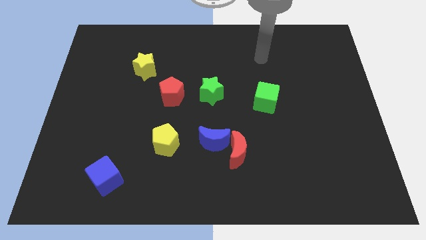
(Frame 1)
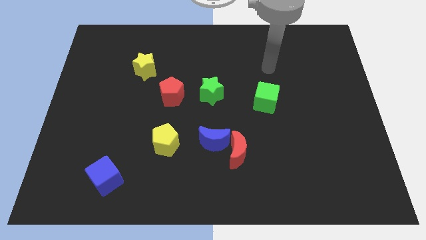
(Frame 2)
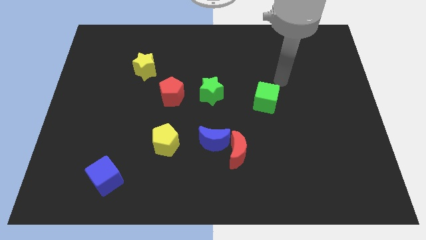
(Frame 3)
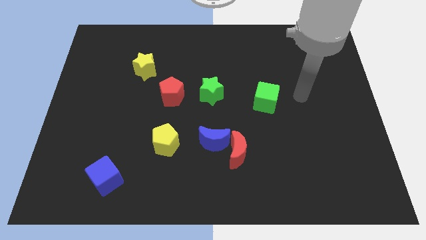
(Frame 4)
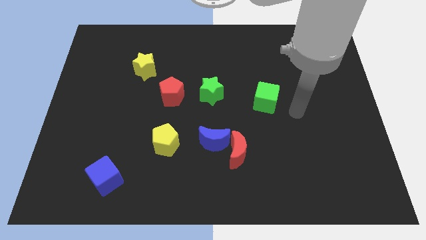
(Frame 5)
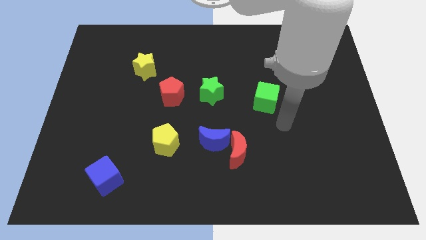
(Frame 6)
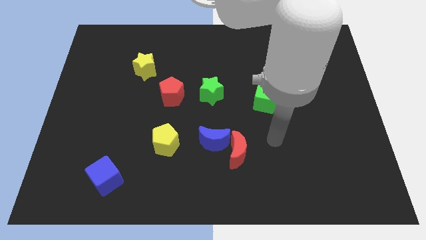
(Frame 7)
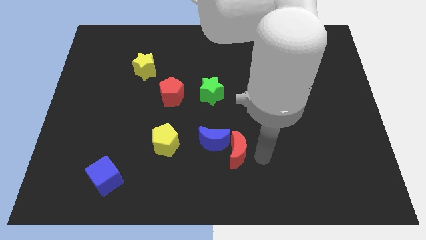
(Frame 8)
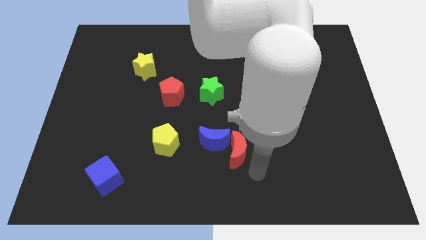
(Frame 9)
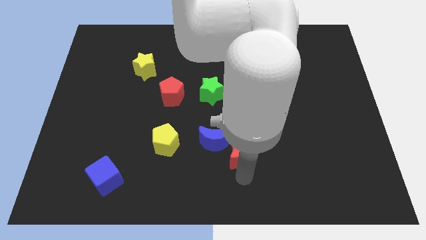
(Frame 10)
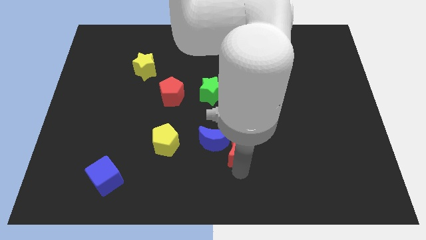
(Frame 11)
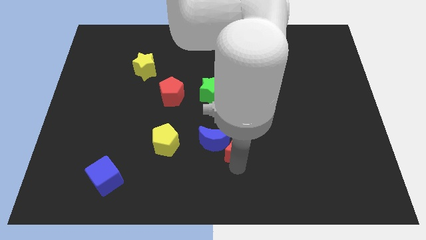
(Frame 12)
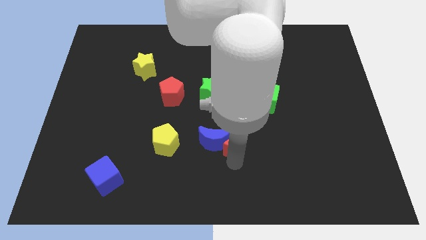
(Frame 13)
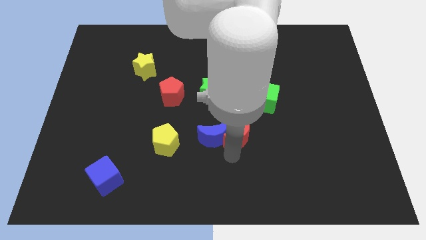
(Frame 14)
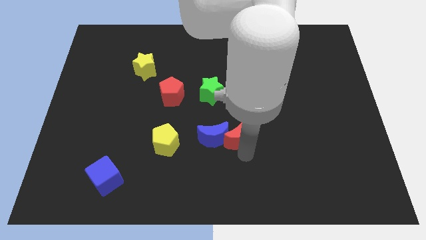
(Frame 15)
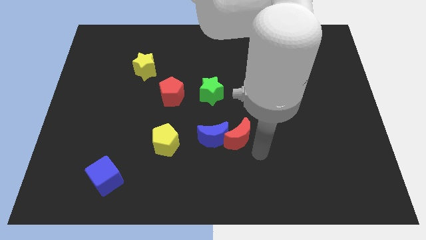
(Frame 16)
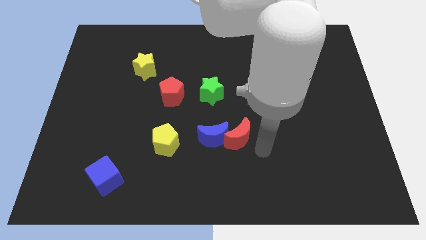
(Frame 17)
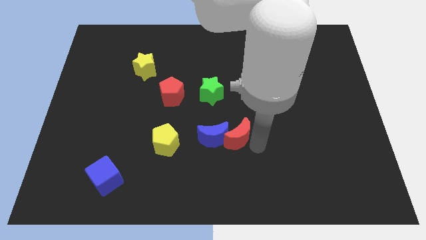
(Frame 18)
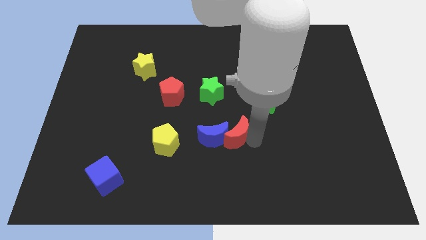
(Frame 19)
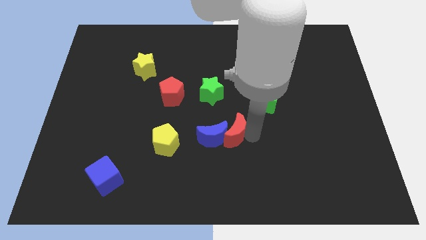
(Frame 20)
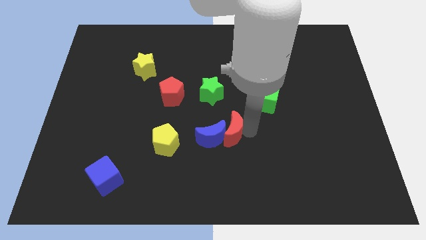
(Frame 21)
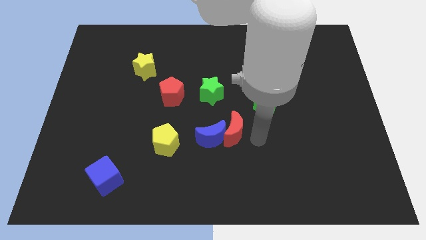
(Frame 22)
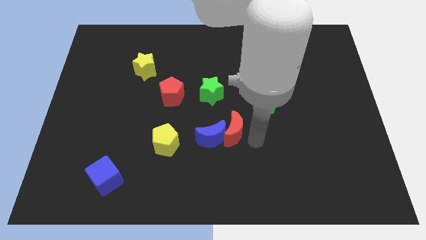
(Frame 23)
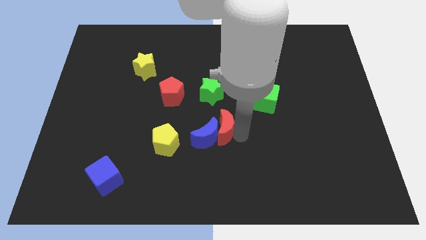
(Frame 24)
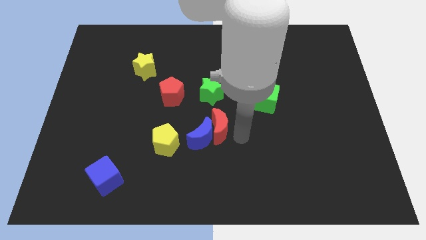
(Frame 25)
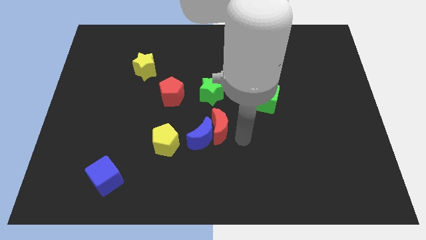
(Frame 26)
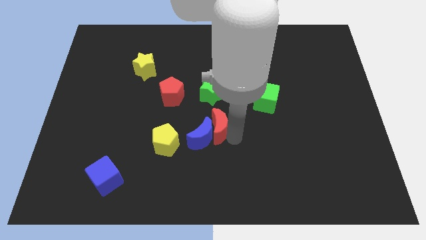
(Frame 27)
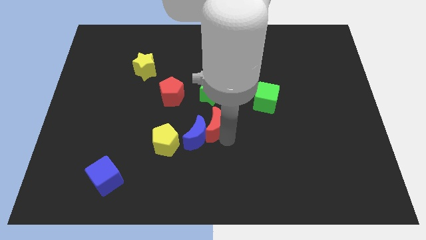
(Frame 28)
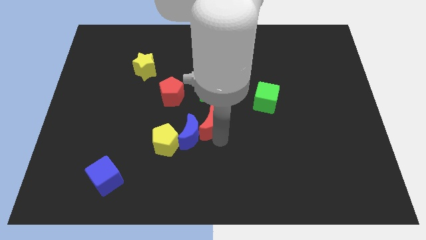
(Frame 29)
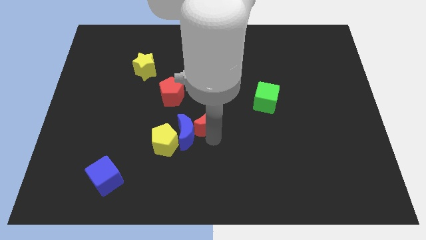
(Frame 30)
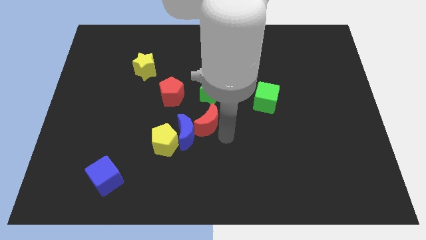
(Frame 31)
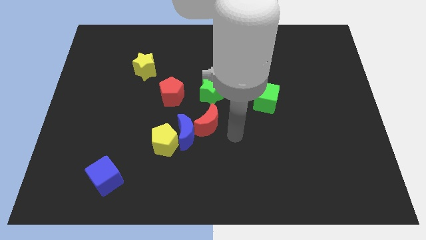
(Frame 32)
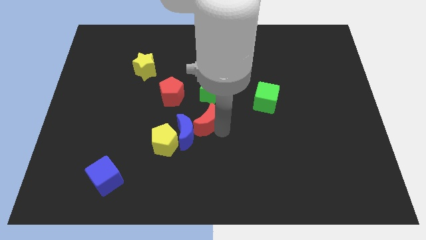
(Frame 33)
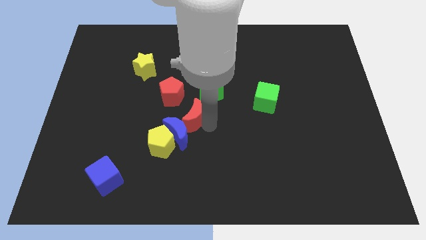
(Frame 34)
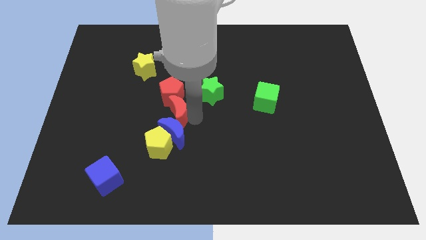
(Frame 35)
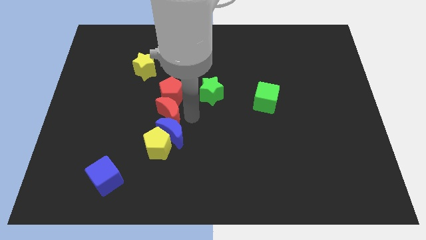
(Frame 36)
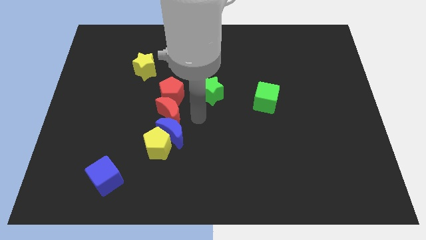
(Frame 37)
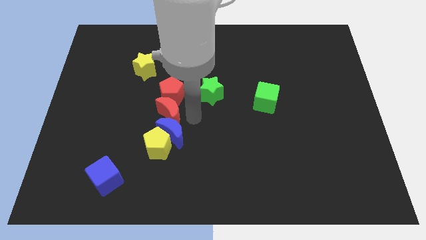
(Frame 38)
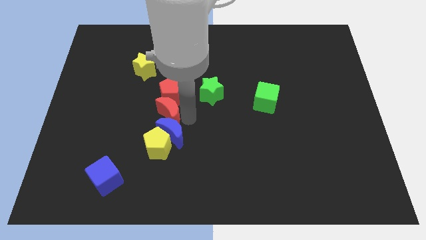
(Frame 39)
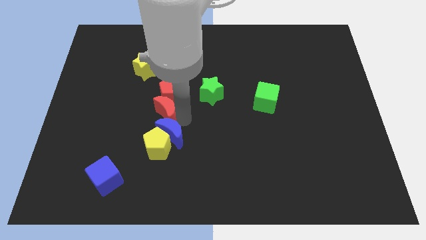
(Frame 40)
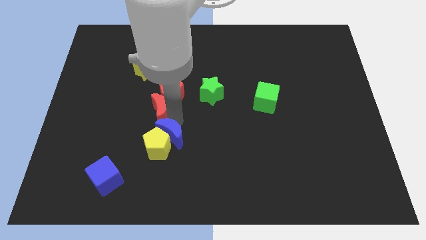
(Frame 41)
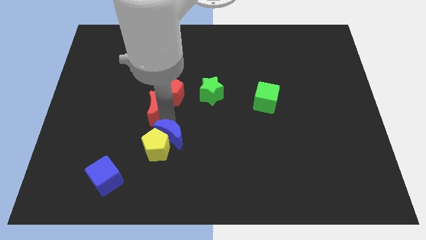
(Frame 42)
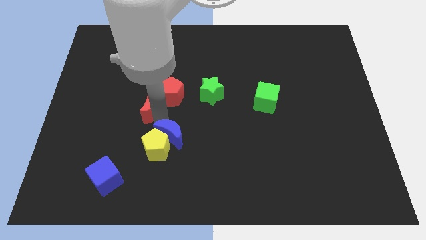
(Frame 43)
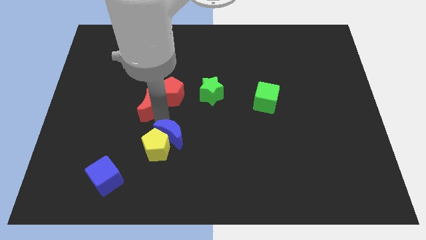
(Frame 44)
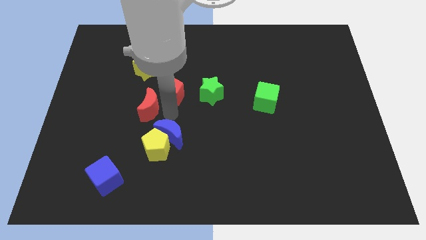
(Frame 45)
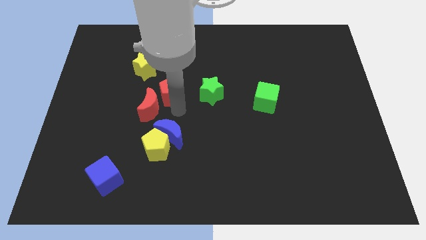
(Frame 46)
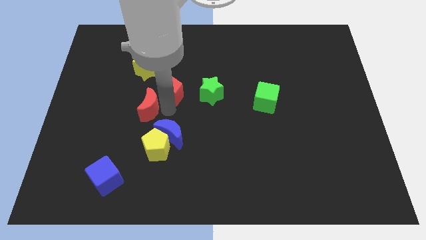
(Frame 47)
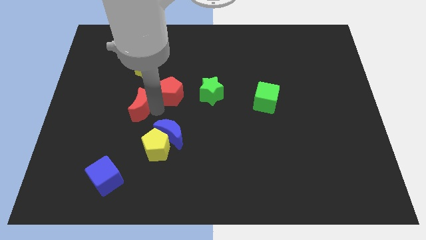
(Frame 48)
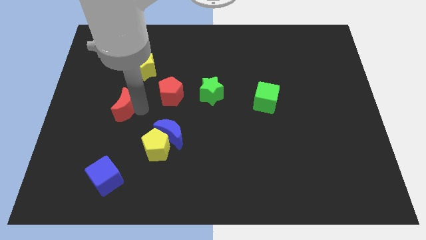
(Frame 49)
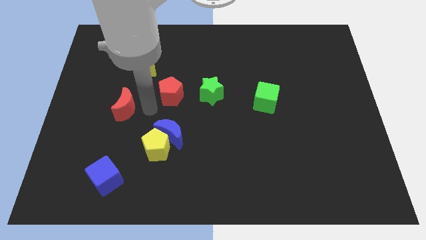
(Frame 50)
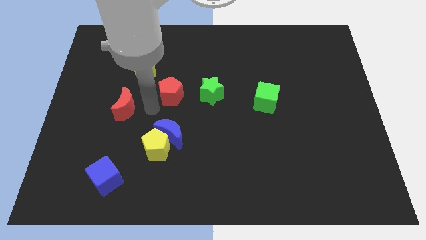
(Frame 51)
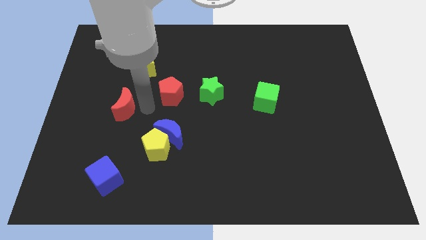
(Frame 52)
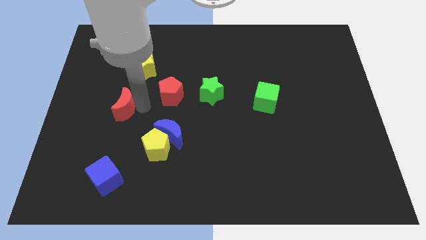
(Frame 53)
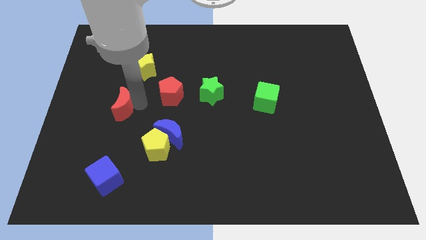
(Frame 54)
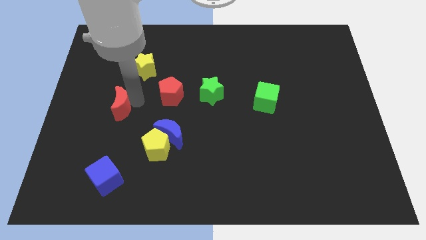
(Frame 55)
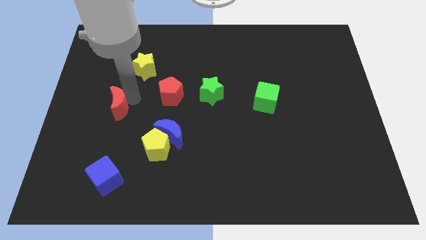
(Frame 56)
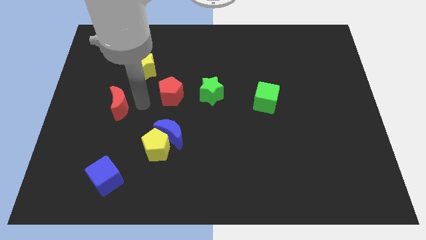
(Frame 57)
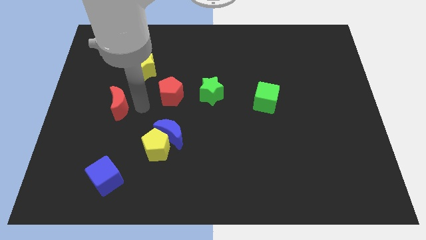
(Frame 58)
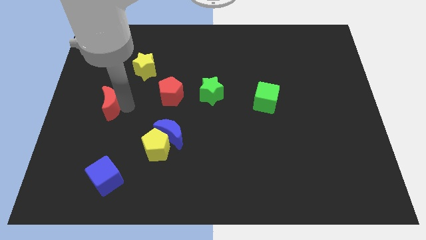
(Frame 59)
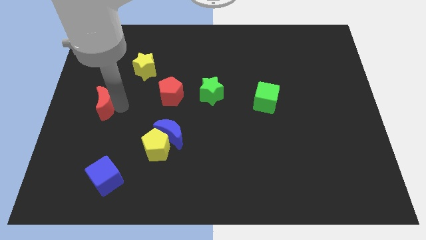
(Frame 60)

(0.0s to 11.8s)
slide the red moon to the left side

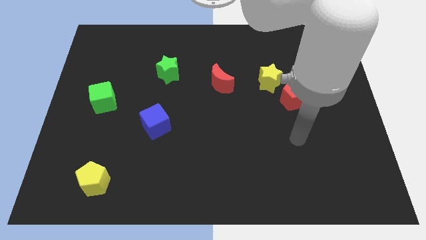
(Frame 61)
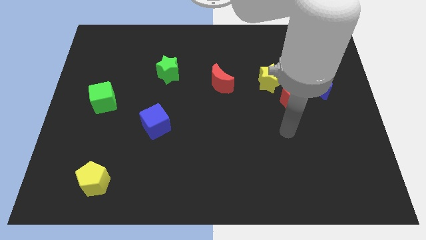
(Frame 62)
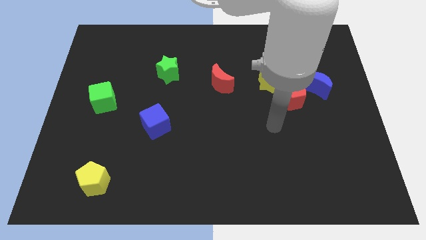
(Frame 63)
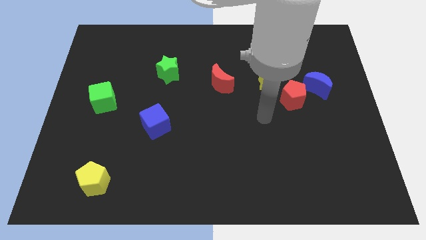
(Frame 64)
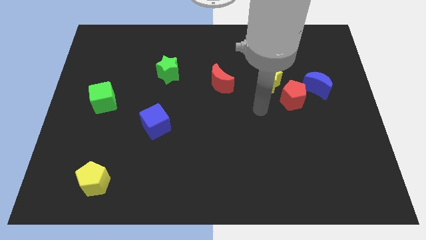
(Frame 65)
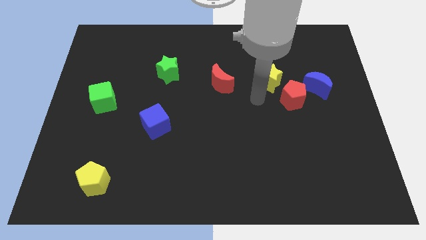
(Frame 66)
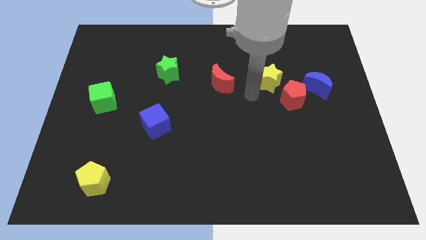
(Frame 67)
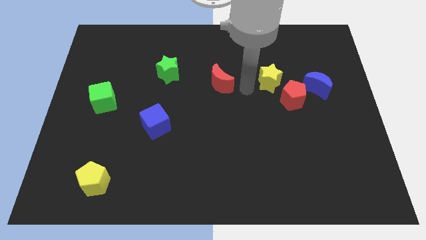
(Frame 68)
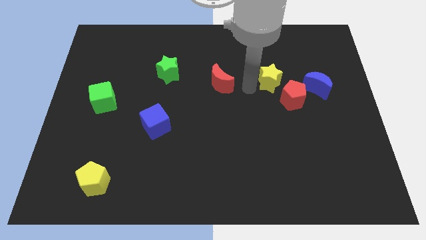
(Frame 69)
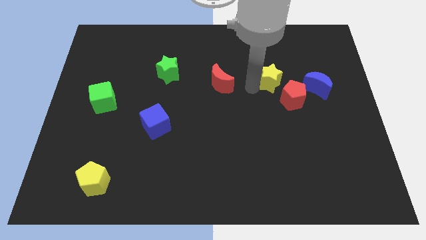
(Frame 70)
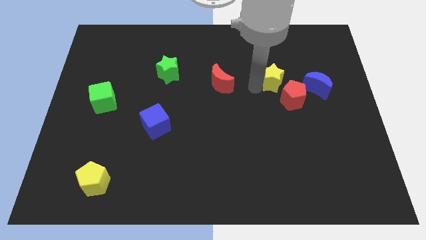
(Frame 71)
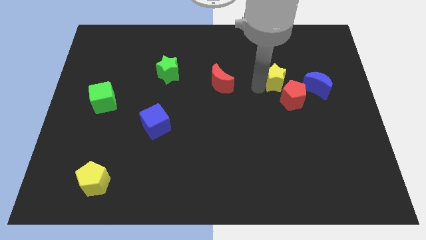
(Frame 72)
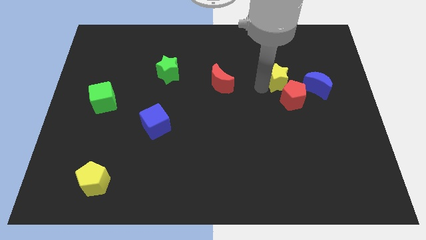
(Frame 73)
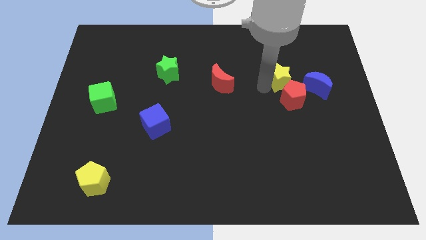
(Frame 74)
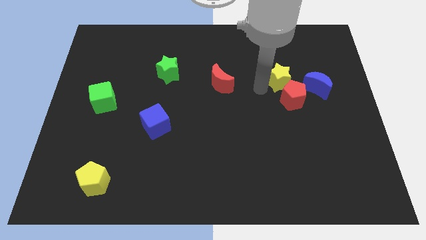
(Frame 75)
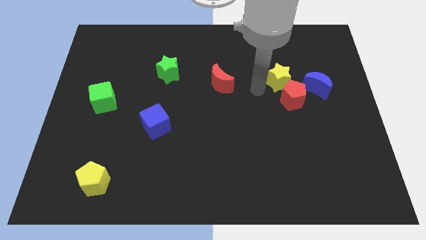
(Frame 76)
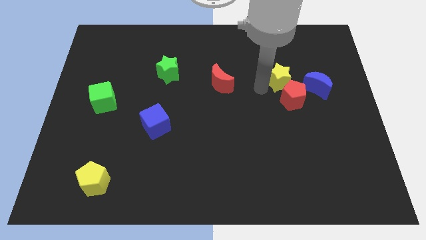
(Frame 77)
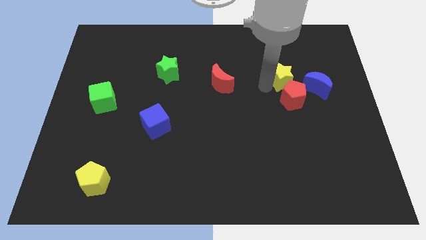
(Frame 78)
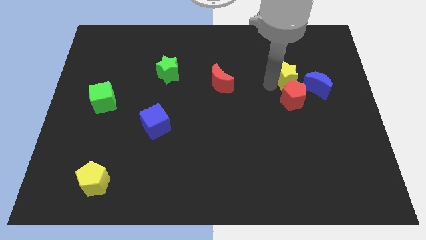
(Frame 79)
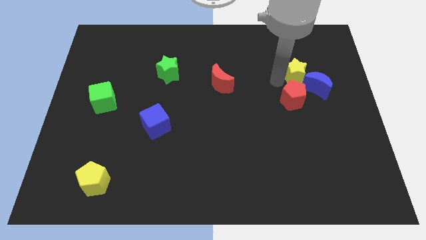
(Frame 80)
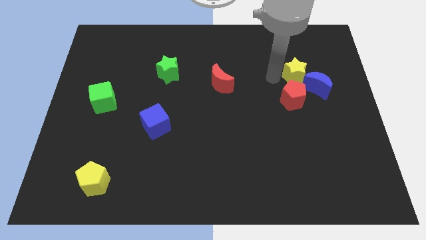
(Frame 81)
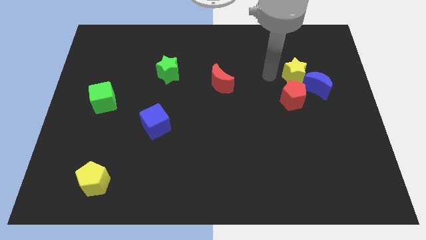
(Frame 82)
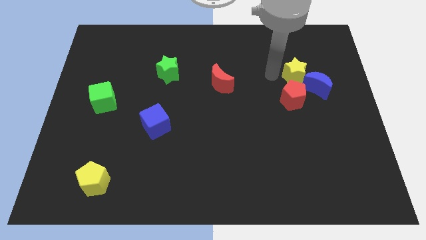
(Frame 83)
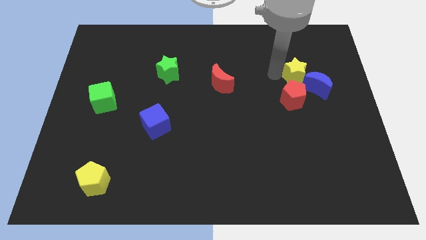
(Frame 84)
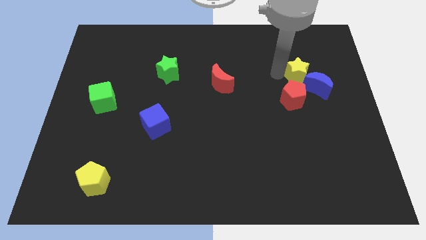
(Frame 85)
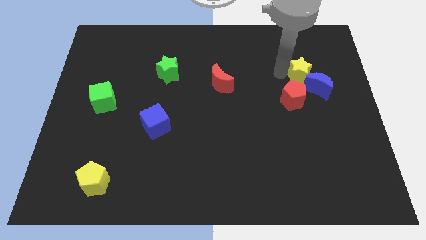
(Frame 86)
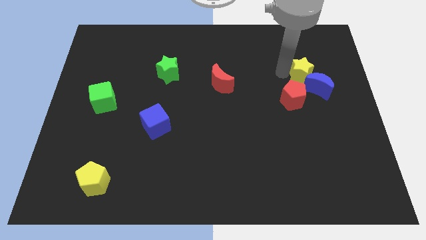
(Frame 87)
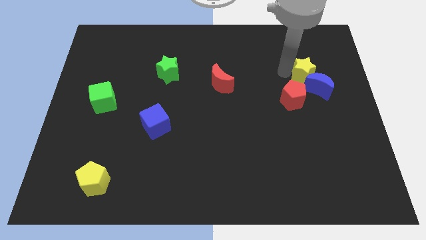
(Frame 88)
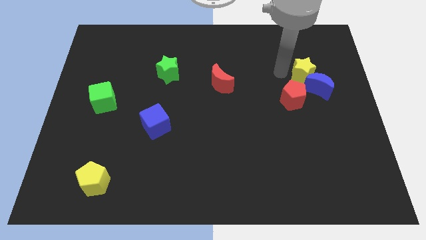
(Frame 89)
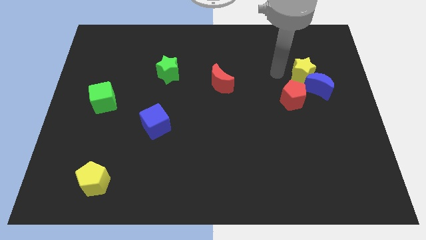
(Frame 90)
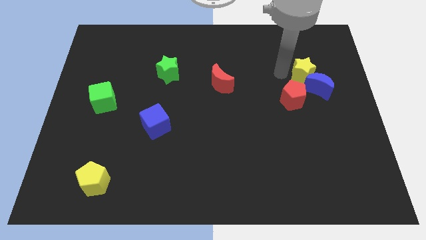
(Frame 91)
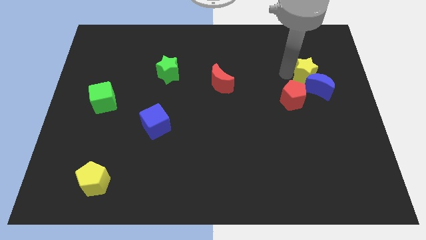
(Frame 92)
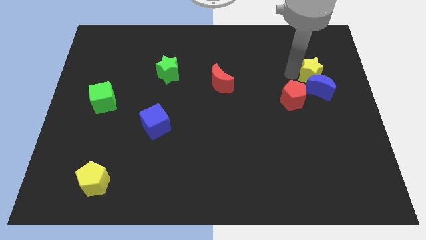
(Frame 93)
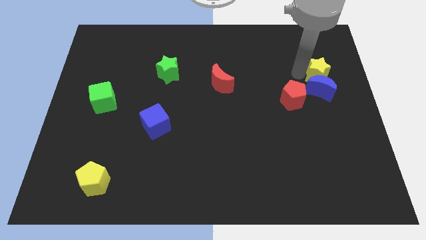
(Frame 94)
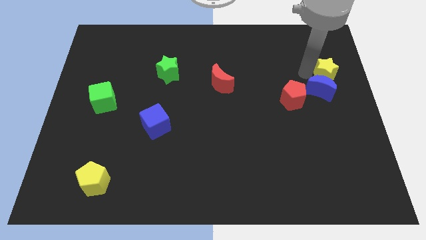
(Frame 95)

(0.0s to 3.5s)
put the yellow star to the right side of the board
